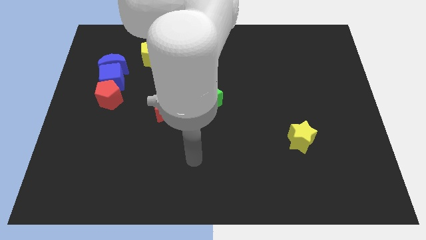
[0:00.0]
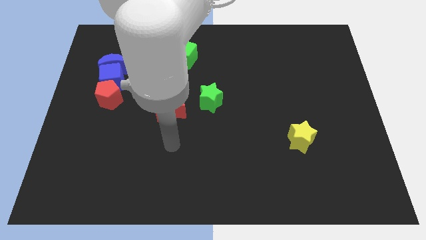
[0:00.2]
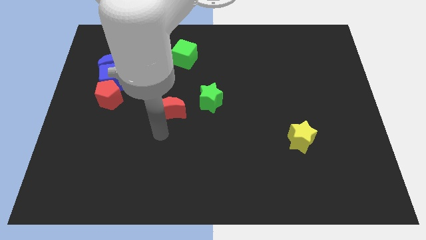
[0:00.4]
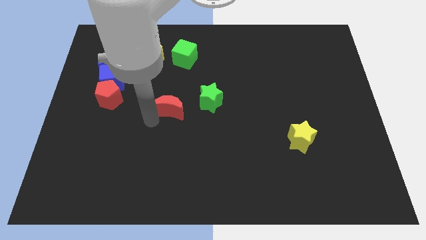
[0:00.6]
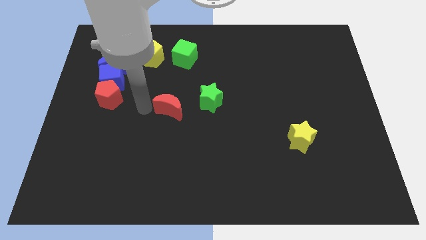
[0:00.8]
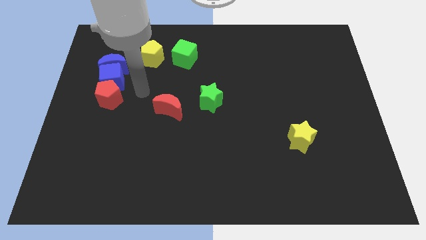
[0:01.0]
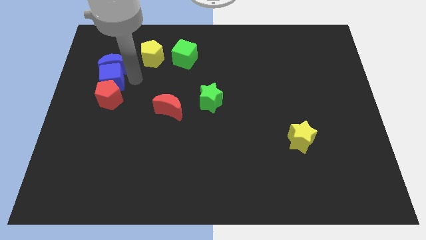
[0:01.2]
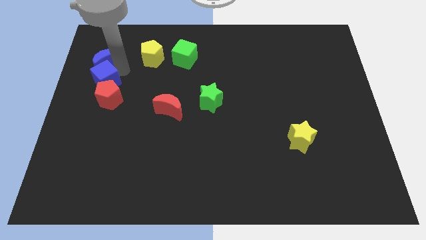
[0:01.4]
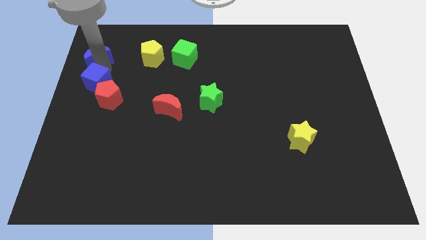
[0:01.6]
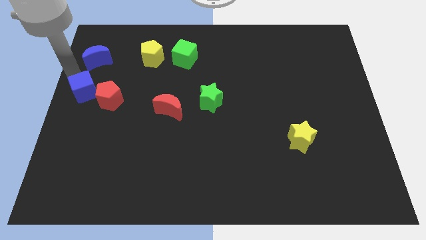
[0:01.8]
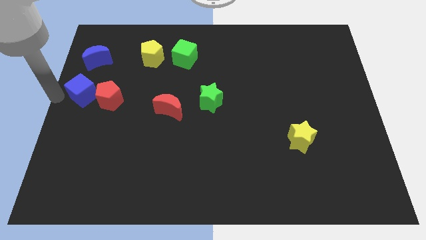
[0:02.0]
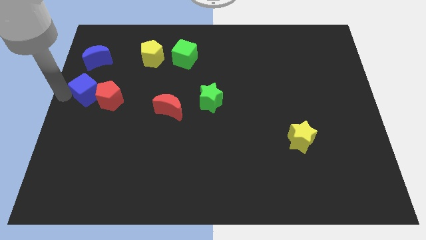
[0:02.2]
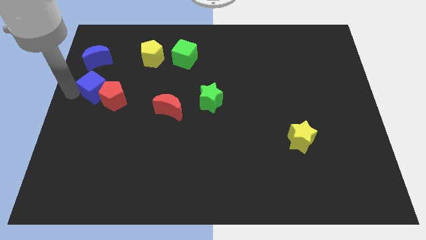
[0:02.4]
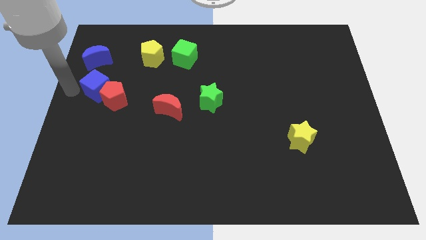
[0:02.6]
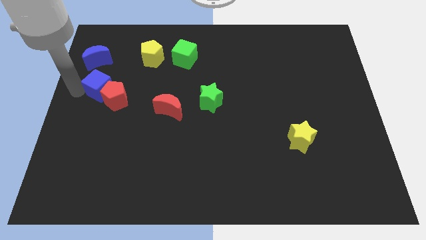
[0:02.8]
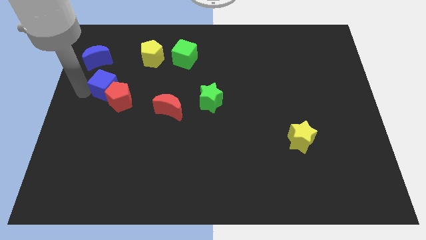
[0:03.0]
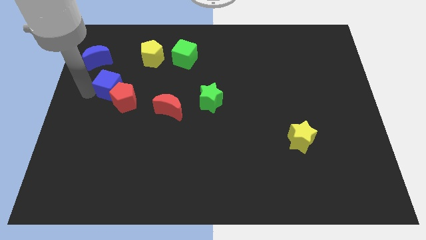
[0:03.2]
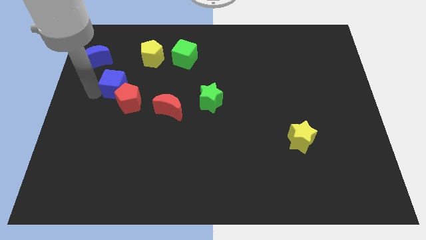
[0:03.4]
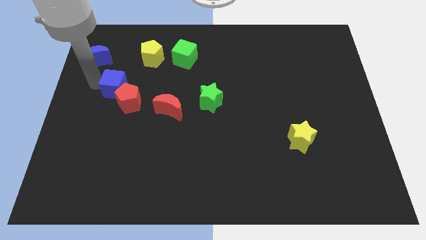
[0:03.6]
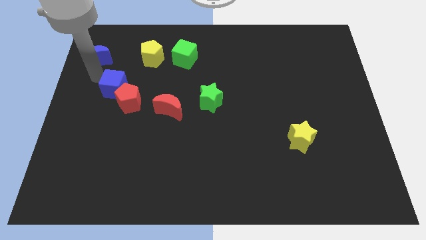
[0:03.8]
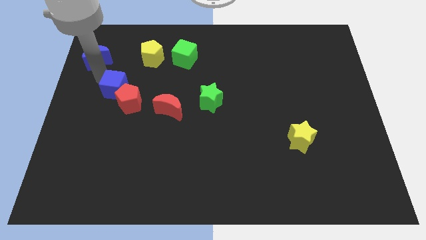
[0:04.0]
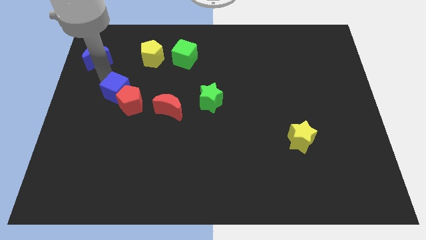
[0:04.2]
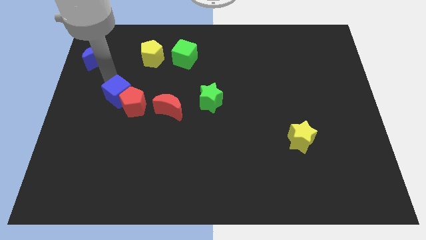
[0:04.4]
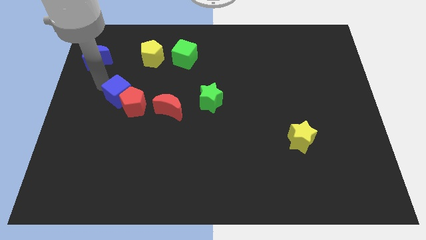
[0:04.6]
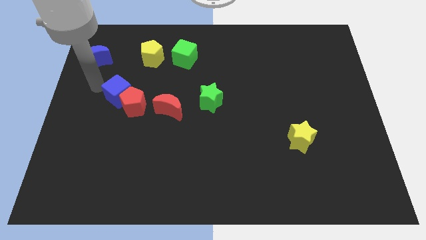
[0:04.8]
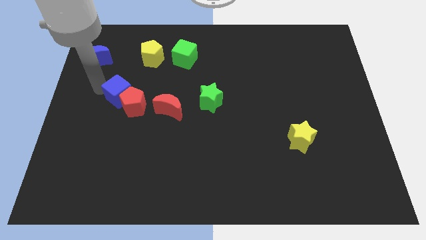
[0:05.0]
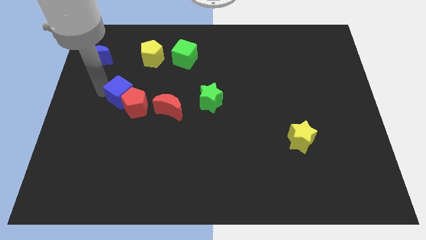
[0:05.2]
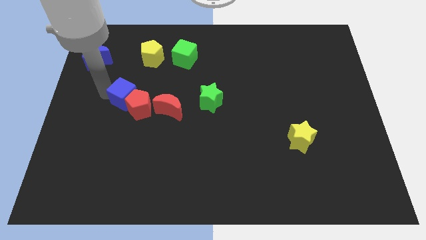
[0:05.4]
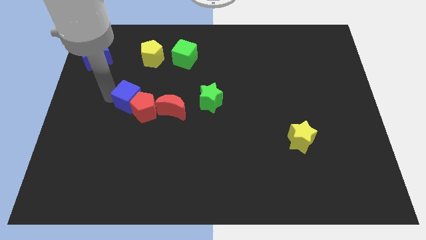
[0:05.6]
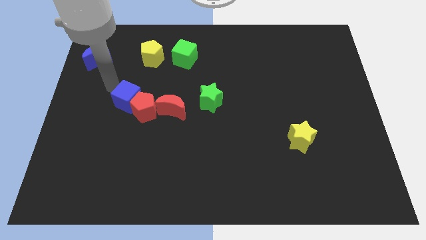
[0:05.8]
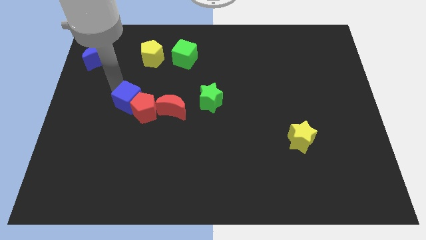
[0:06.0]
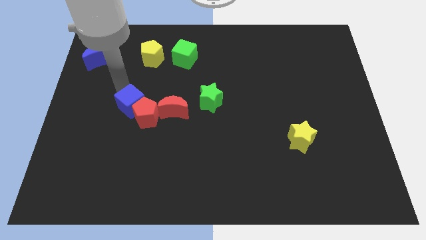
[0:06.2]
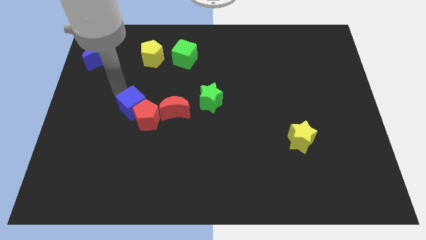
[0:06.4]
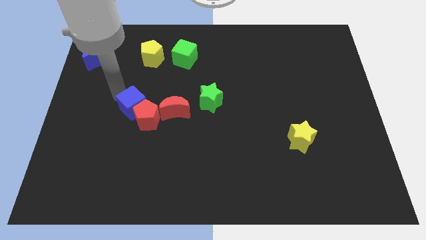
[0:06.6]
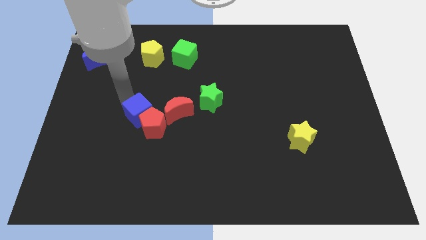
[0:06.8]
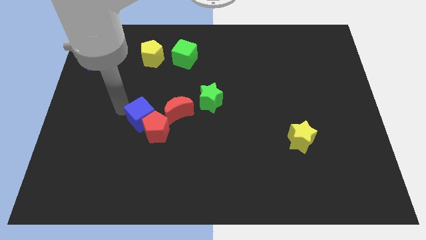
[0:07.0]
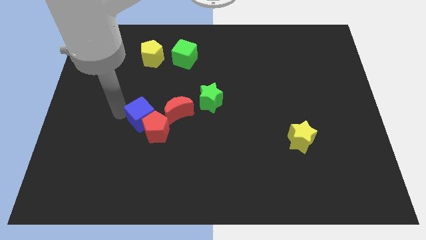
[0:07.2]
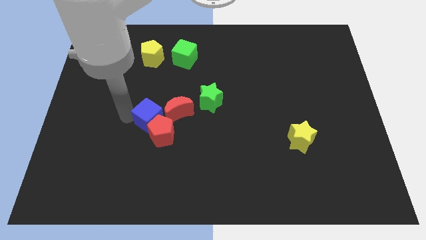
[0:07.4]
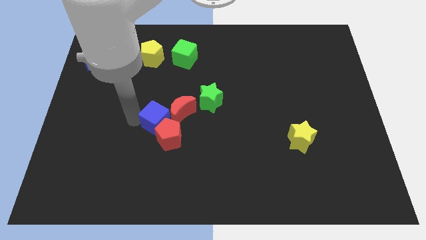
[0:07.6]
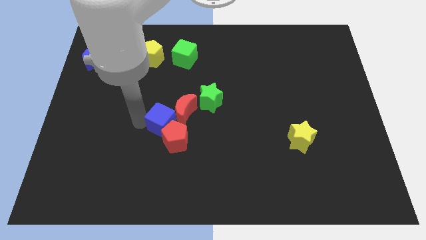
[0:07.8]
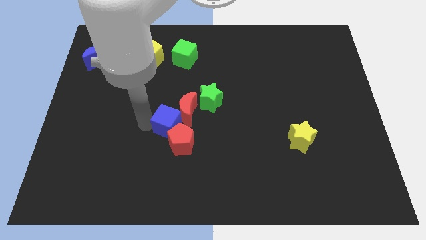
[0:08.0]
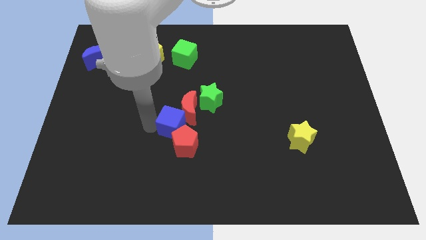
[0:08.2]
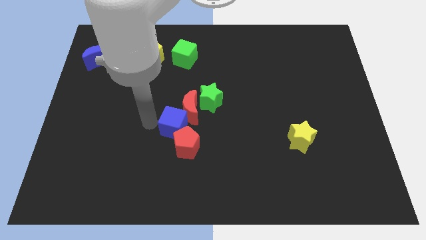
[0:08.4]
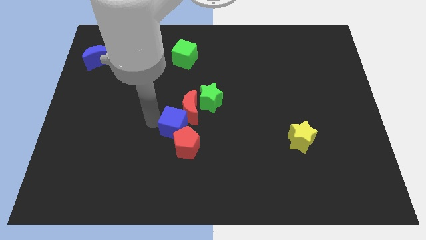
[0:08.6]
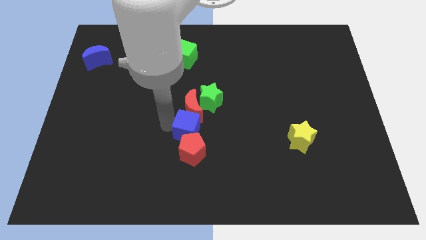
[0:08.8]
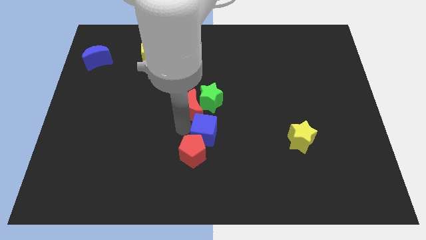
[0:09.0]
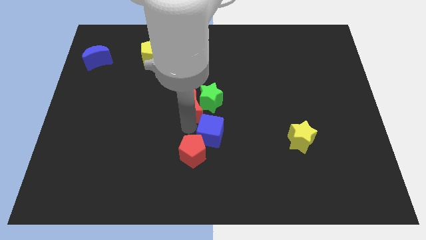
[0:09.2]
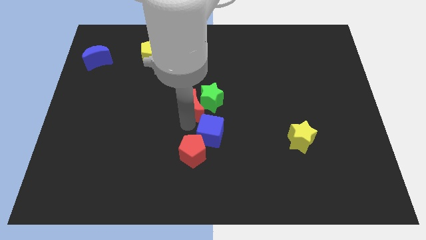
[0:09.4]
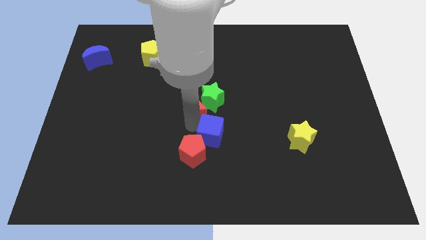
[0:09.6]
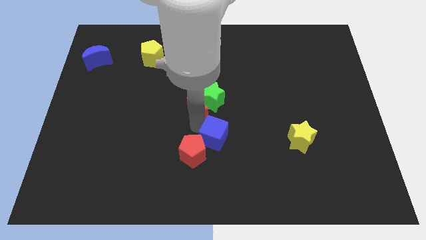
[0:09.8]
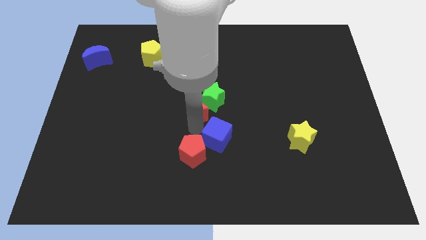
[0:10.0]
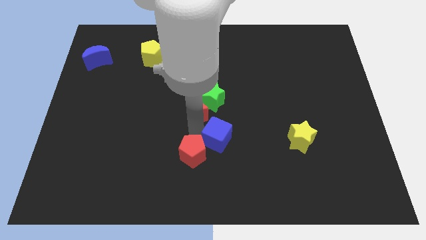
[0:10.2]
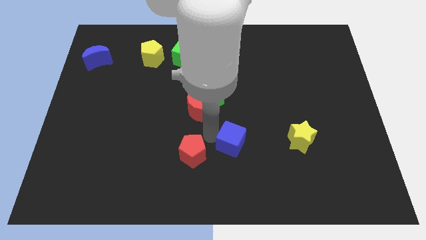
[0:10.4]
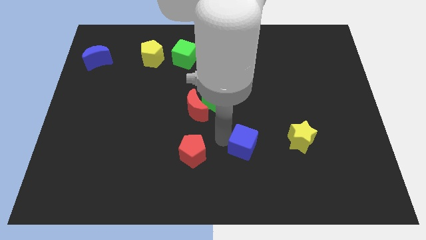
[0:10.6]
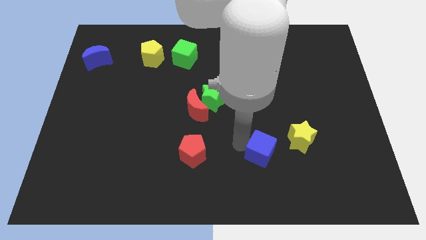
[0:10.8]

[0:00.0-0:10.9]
move the blue cube diagonally down and to the left of the yellow star

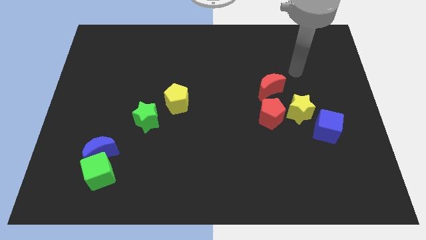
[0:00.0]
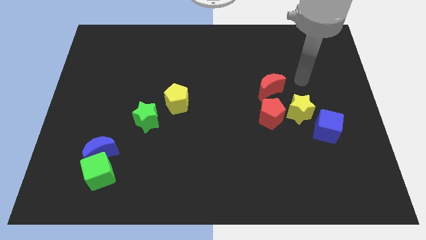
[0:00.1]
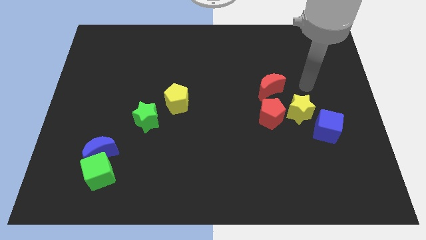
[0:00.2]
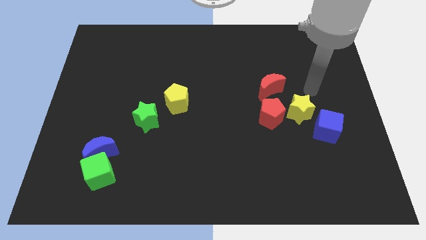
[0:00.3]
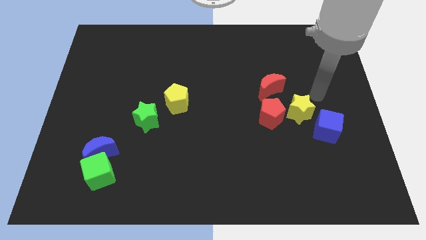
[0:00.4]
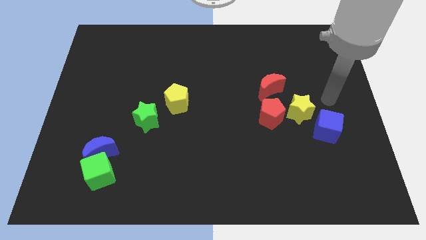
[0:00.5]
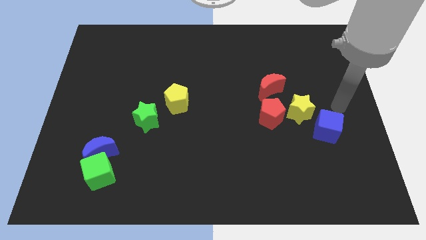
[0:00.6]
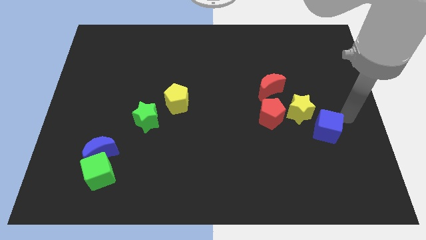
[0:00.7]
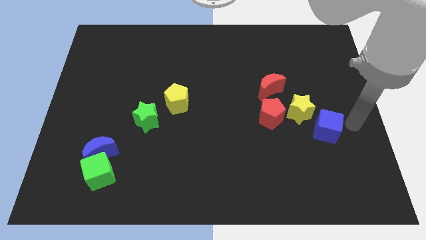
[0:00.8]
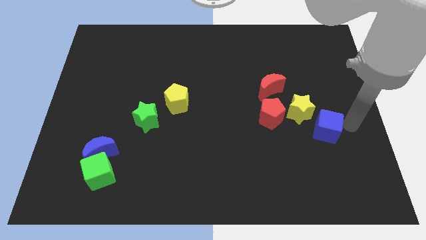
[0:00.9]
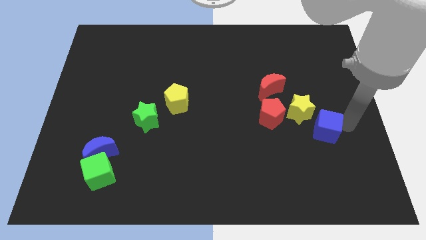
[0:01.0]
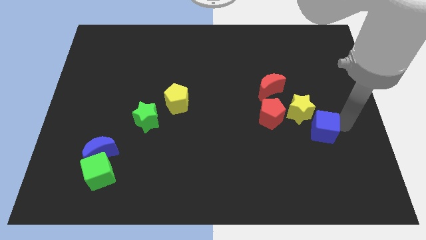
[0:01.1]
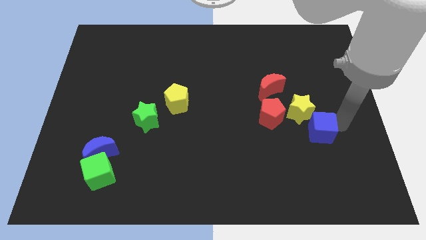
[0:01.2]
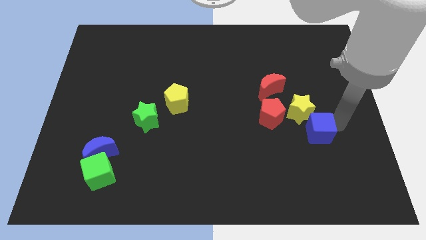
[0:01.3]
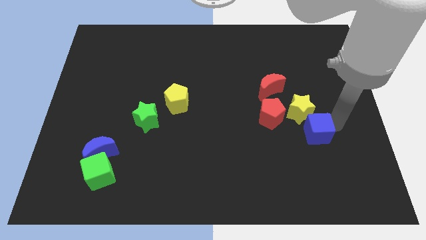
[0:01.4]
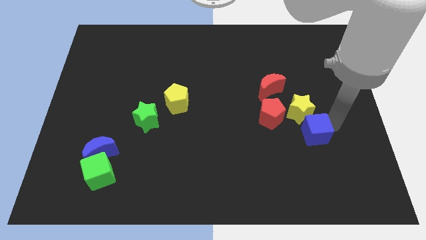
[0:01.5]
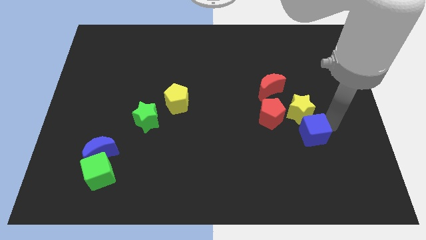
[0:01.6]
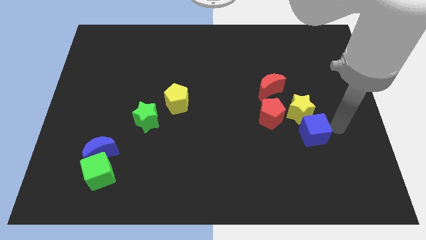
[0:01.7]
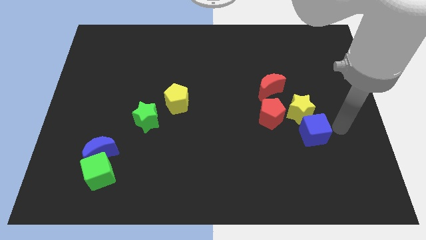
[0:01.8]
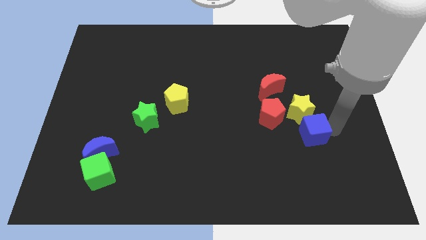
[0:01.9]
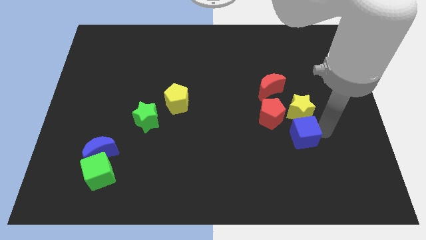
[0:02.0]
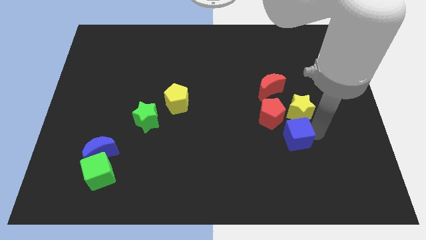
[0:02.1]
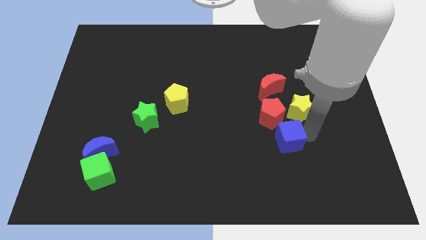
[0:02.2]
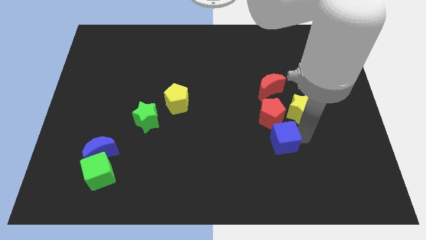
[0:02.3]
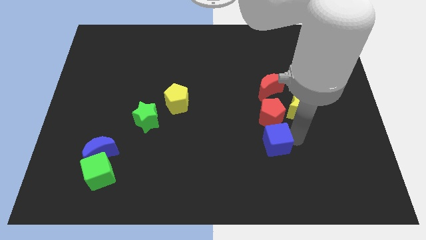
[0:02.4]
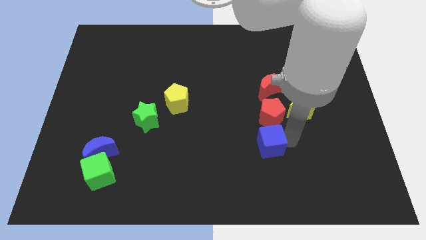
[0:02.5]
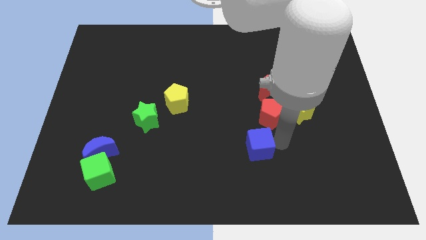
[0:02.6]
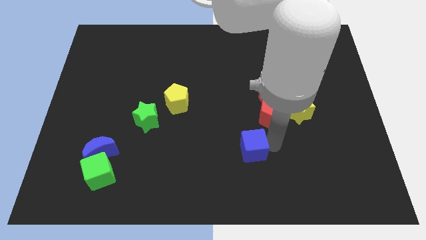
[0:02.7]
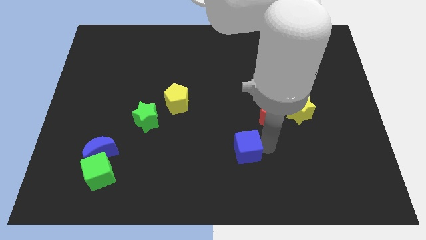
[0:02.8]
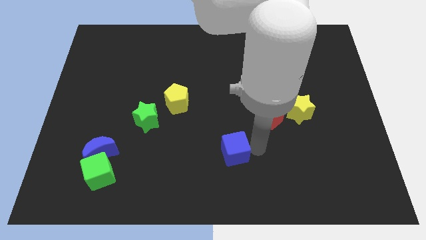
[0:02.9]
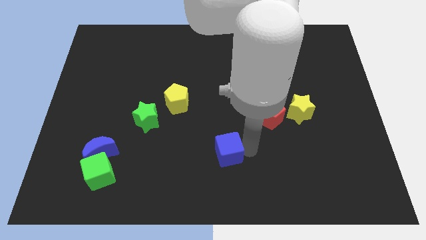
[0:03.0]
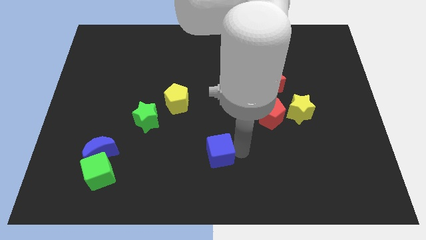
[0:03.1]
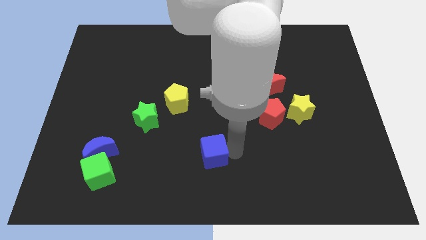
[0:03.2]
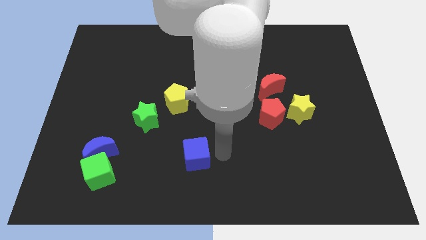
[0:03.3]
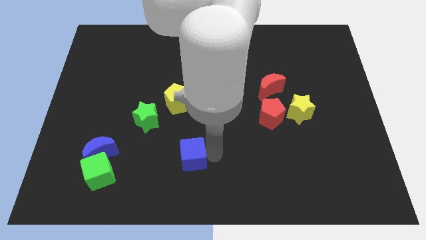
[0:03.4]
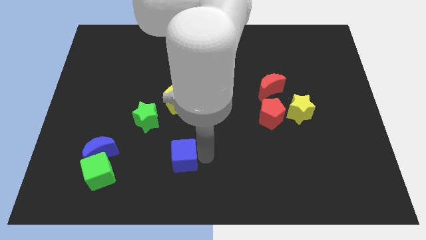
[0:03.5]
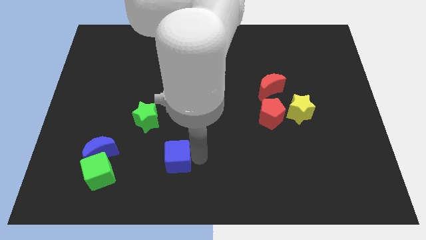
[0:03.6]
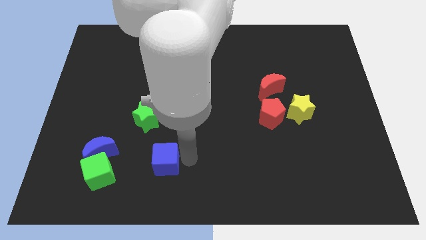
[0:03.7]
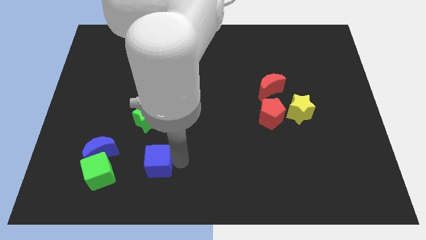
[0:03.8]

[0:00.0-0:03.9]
push the blue cube below the green star
